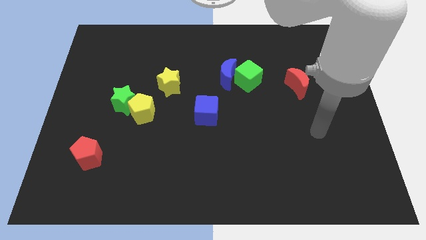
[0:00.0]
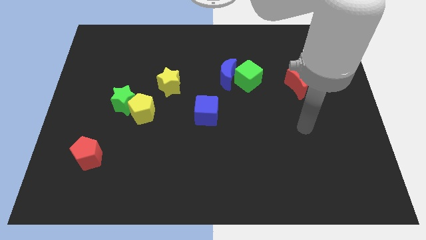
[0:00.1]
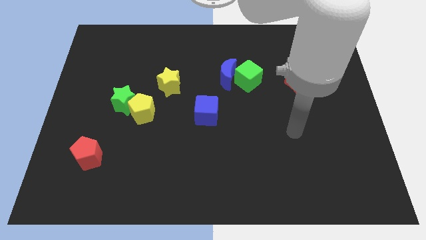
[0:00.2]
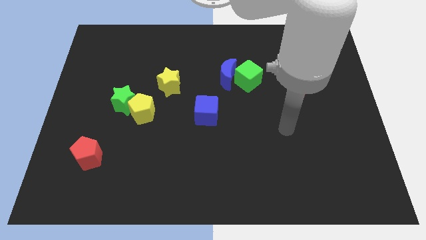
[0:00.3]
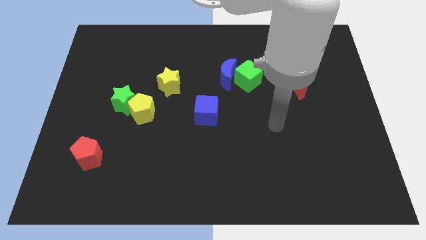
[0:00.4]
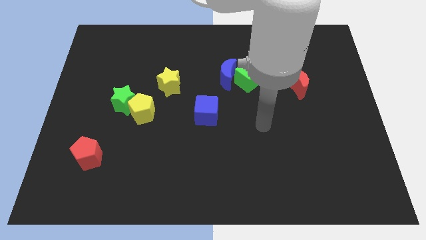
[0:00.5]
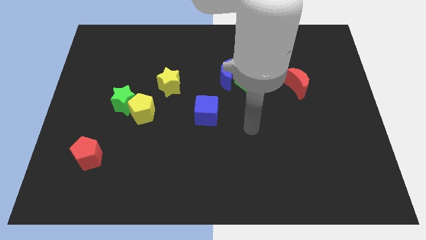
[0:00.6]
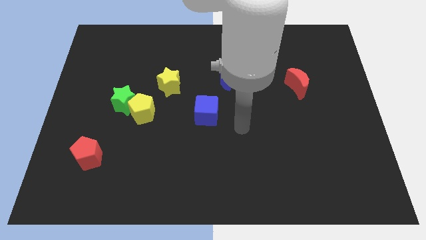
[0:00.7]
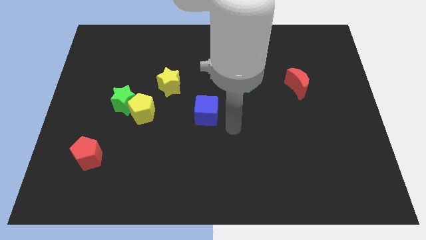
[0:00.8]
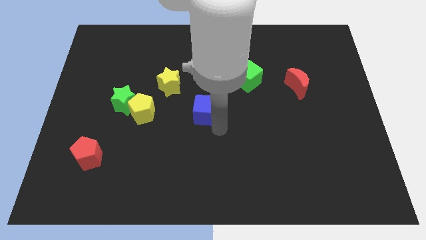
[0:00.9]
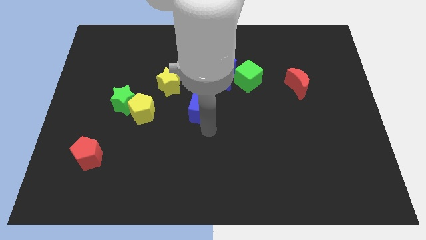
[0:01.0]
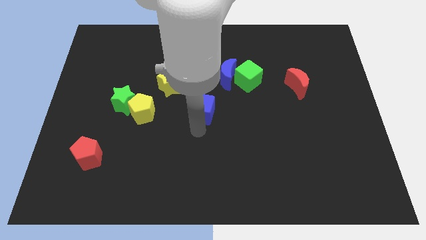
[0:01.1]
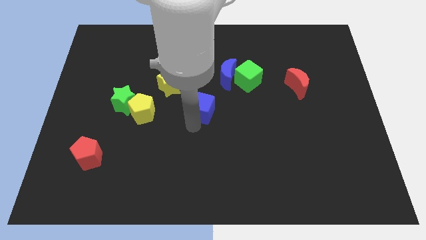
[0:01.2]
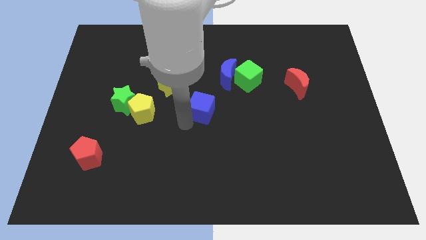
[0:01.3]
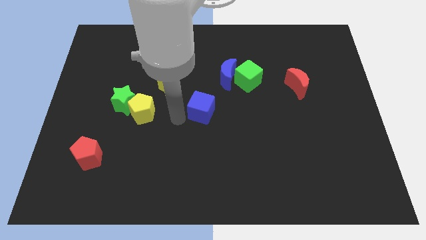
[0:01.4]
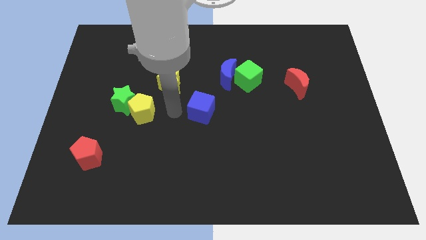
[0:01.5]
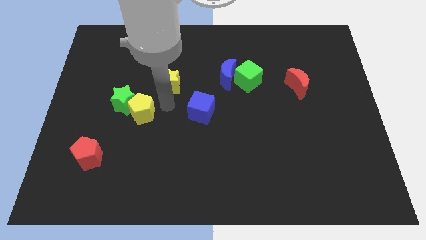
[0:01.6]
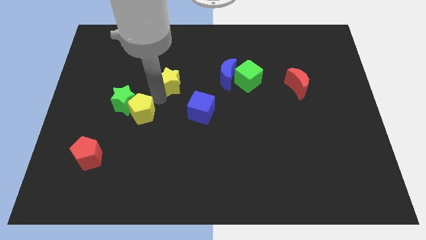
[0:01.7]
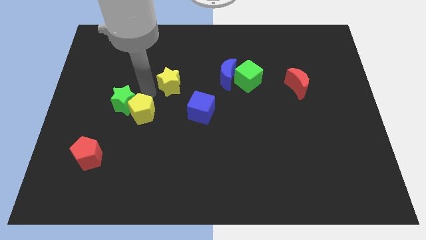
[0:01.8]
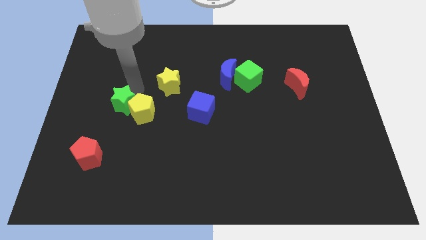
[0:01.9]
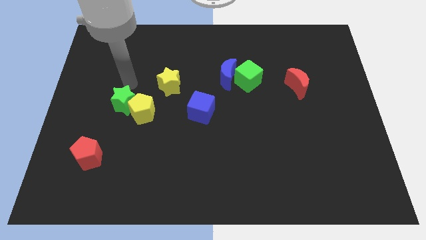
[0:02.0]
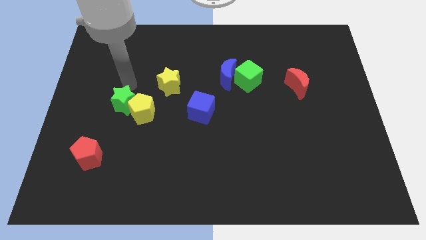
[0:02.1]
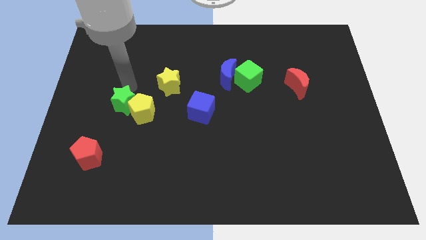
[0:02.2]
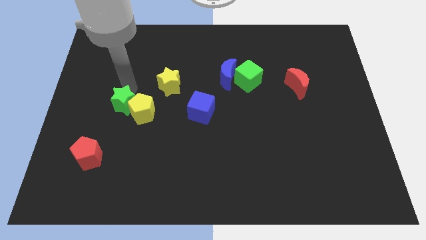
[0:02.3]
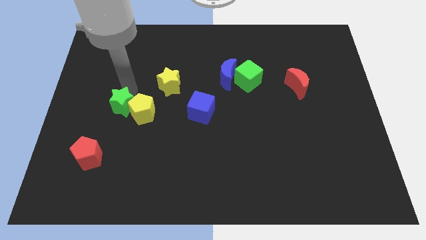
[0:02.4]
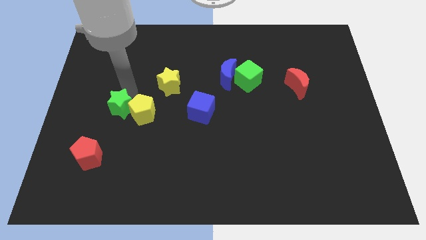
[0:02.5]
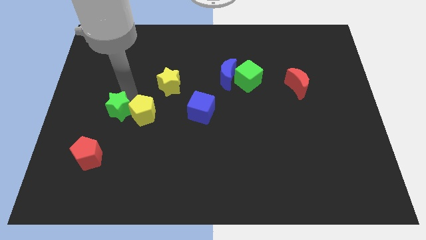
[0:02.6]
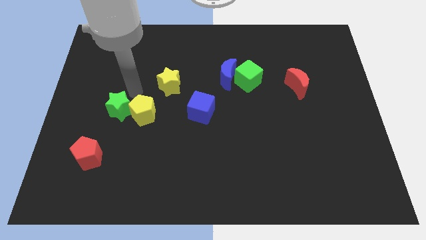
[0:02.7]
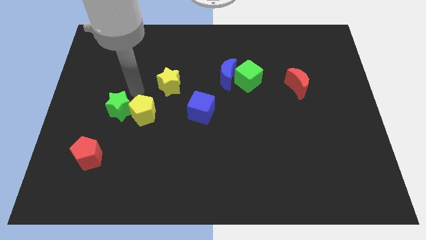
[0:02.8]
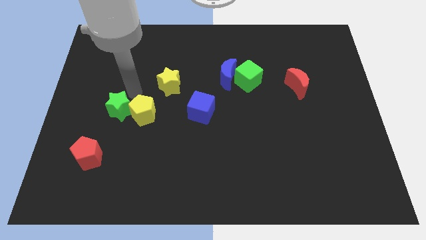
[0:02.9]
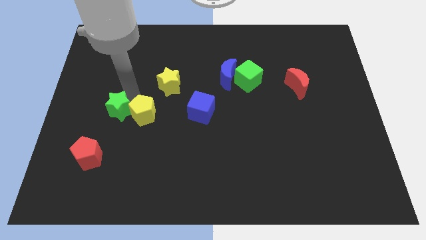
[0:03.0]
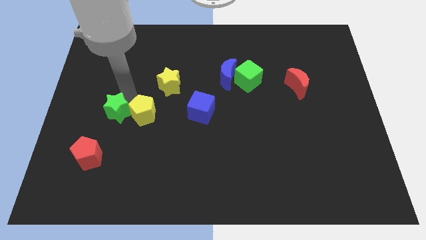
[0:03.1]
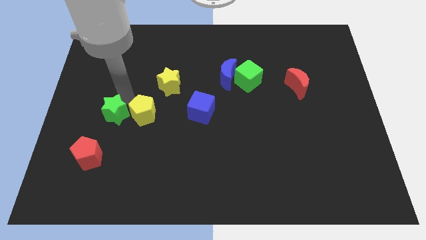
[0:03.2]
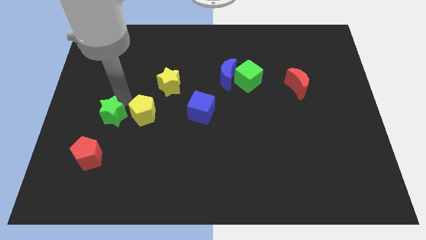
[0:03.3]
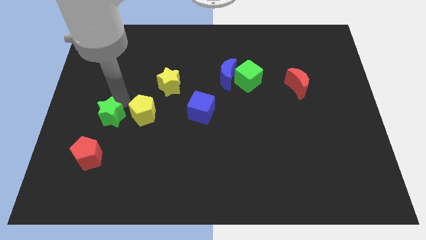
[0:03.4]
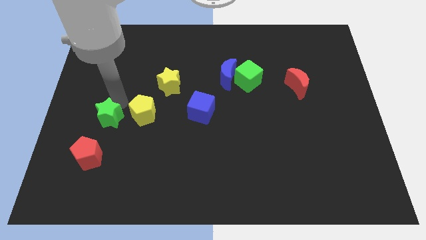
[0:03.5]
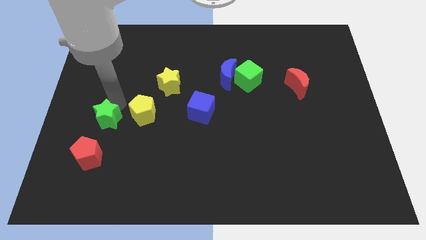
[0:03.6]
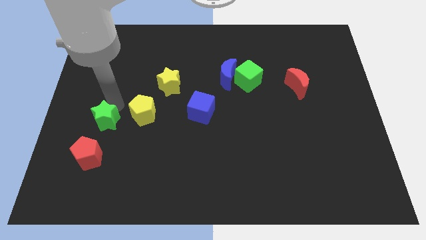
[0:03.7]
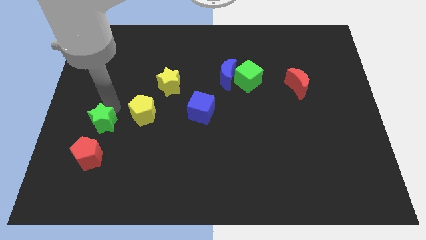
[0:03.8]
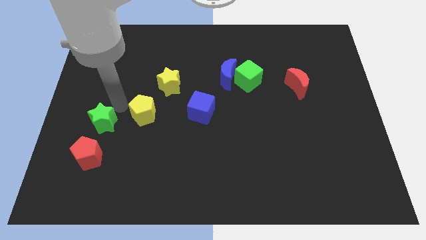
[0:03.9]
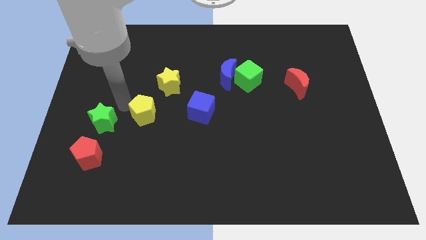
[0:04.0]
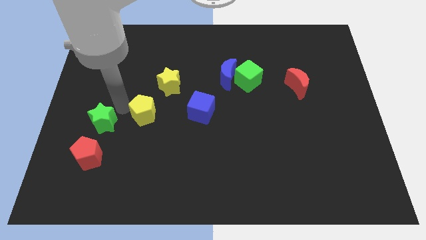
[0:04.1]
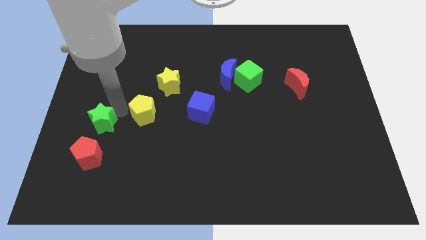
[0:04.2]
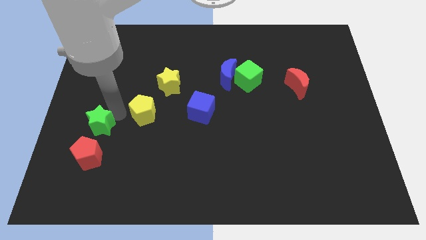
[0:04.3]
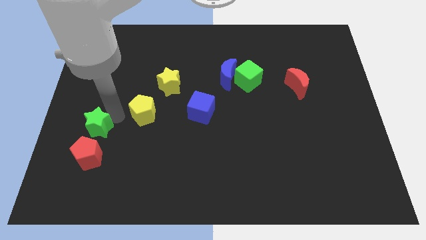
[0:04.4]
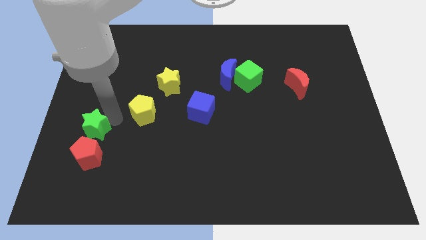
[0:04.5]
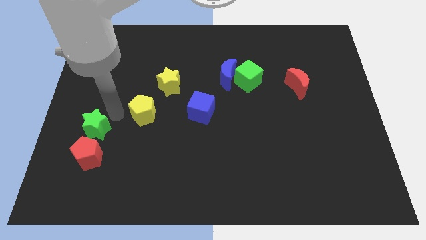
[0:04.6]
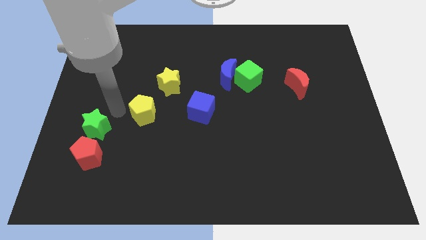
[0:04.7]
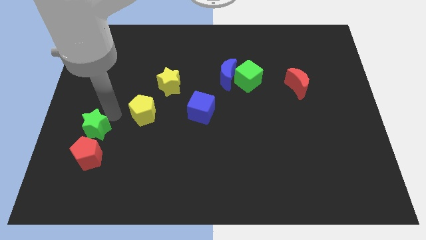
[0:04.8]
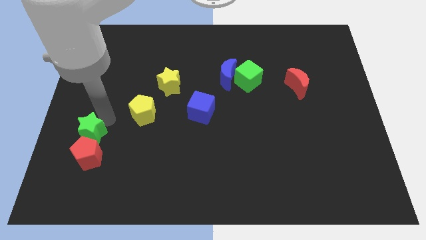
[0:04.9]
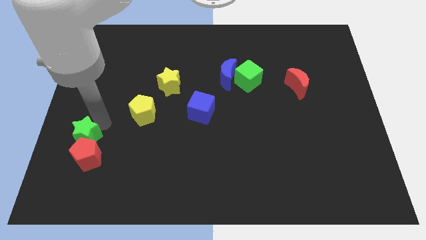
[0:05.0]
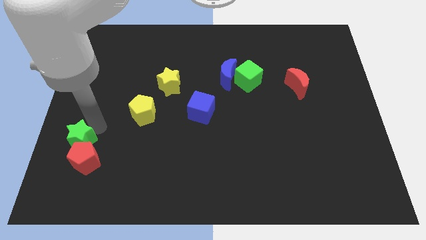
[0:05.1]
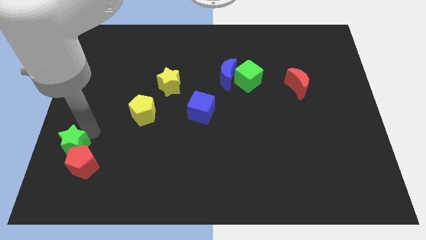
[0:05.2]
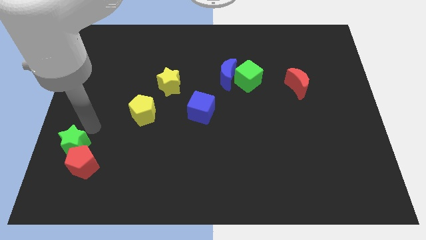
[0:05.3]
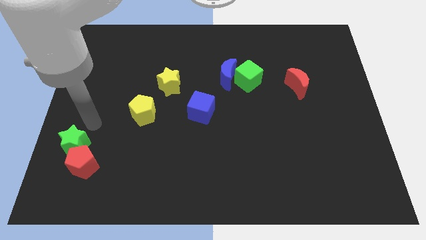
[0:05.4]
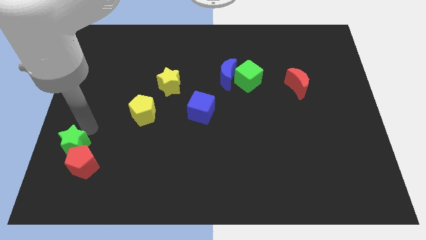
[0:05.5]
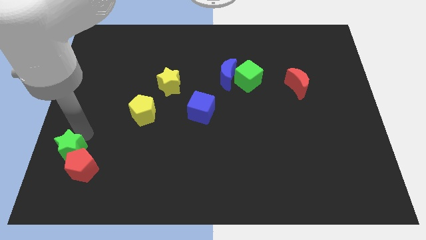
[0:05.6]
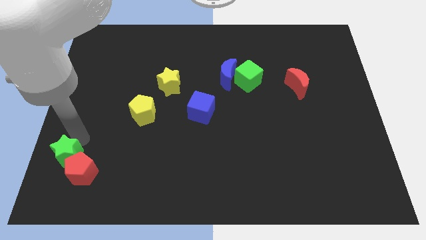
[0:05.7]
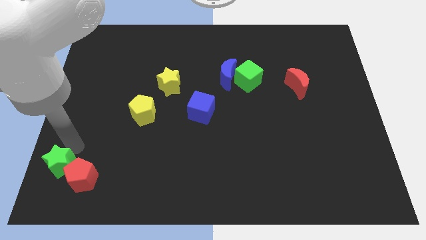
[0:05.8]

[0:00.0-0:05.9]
push the green star to the bottom left corner

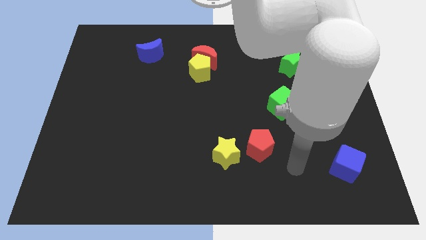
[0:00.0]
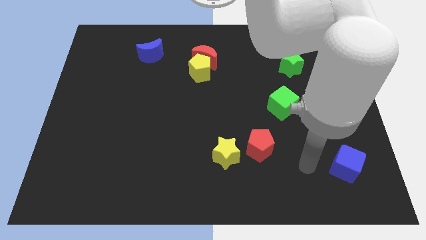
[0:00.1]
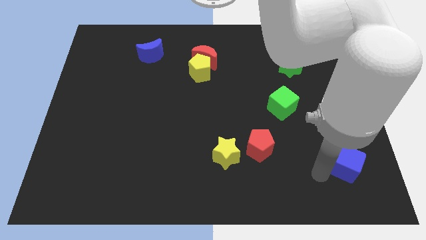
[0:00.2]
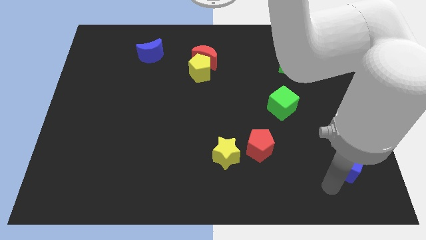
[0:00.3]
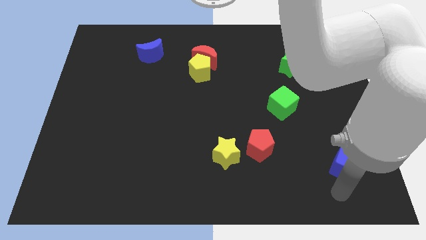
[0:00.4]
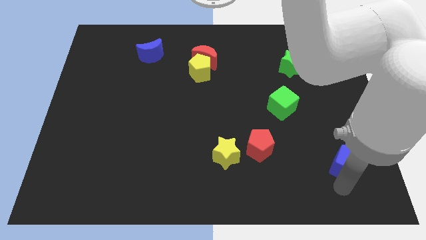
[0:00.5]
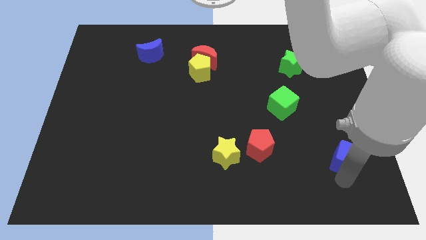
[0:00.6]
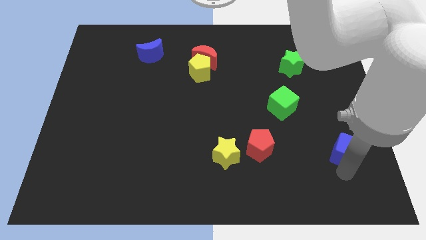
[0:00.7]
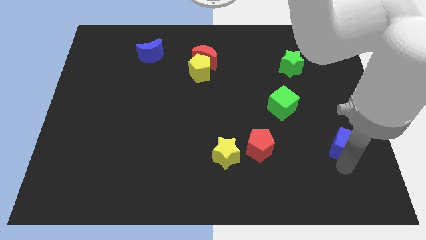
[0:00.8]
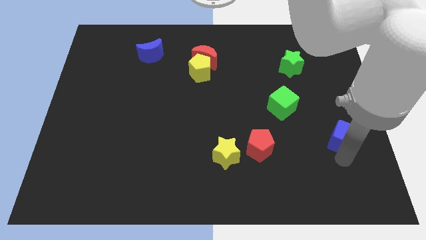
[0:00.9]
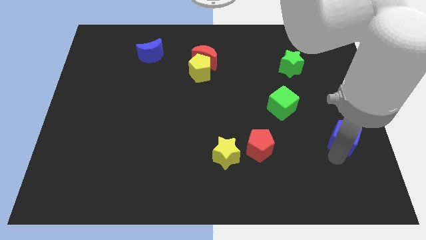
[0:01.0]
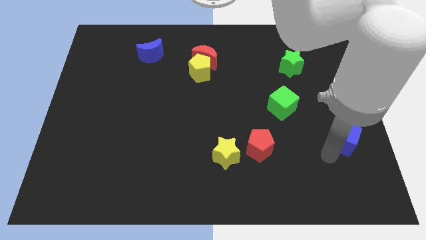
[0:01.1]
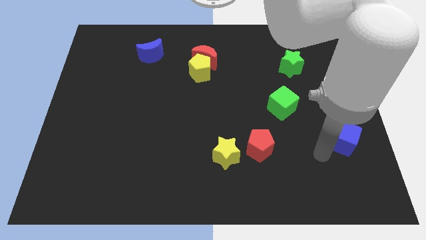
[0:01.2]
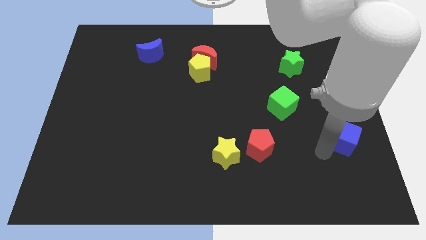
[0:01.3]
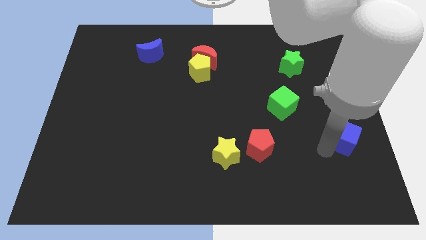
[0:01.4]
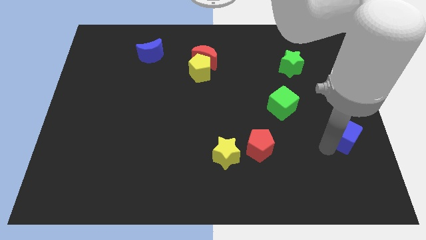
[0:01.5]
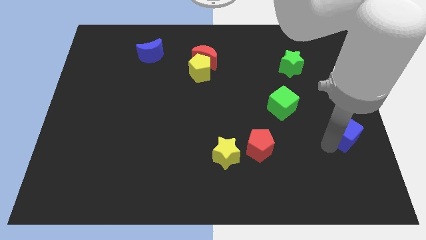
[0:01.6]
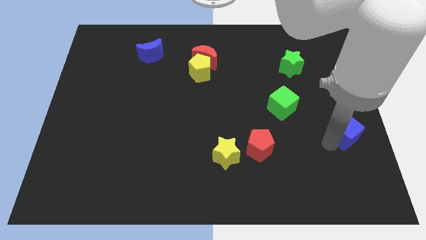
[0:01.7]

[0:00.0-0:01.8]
push the blue cube to the center right
